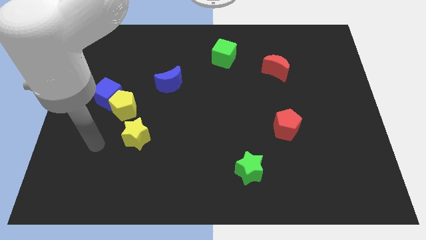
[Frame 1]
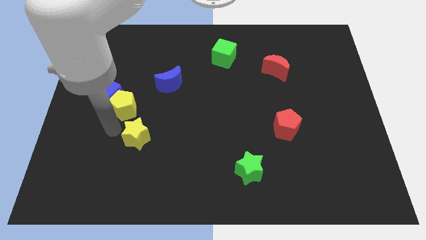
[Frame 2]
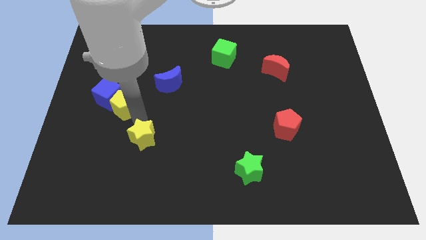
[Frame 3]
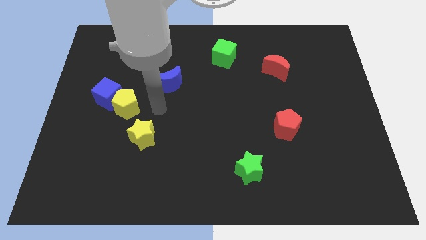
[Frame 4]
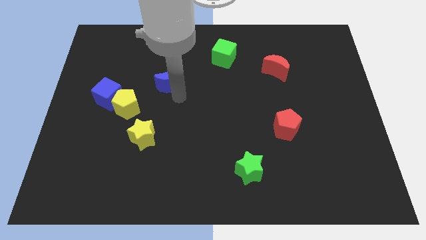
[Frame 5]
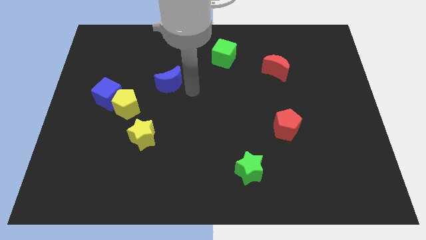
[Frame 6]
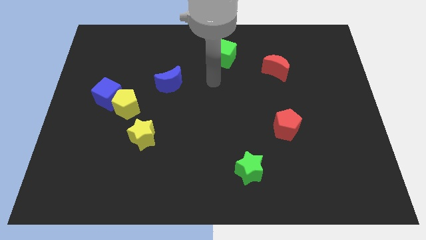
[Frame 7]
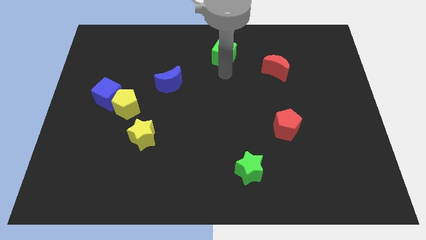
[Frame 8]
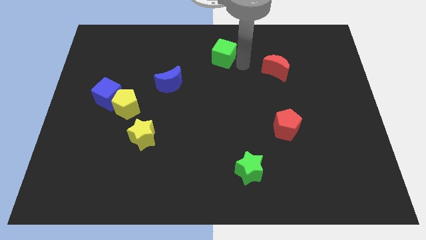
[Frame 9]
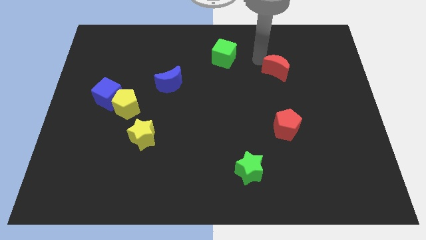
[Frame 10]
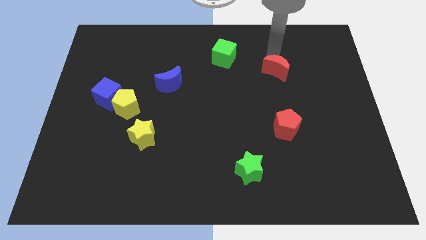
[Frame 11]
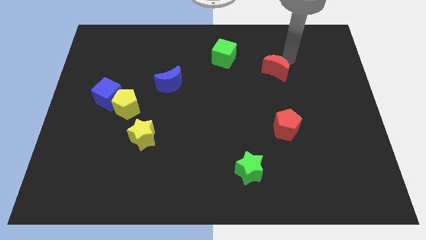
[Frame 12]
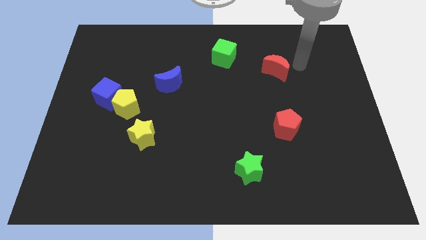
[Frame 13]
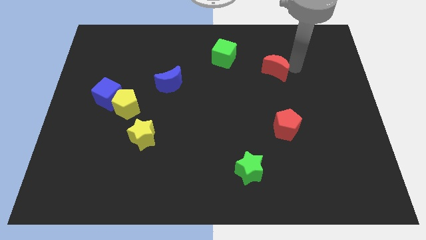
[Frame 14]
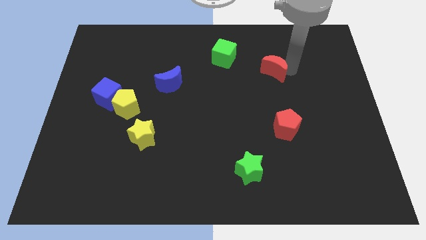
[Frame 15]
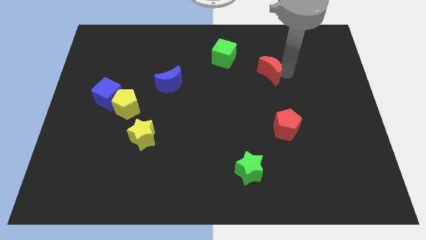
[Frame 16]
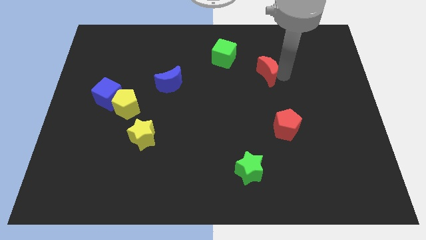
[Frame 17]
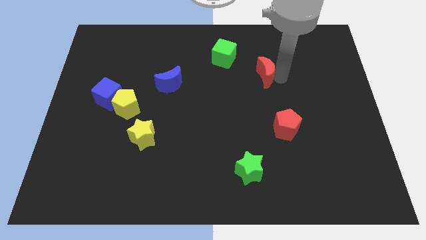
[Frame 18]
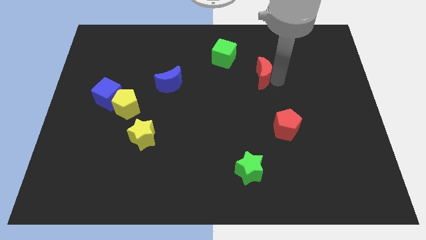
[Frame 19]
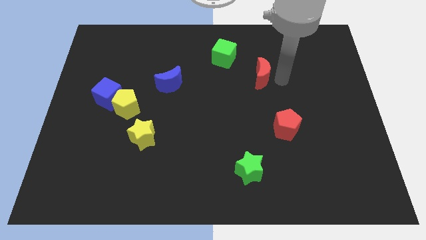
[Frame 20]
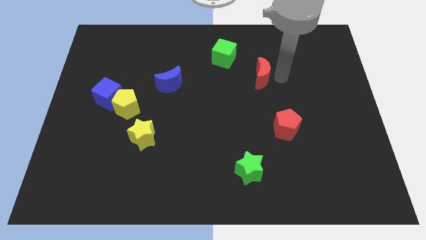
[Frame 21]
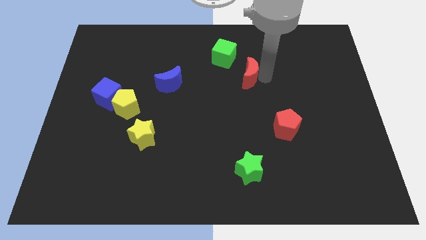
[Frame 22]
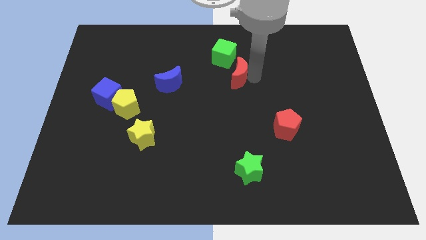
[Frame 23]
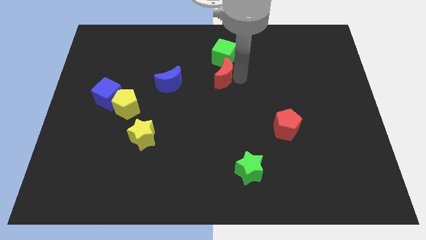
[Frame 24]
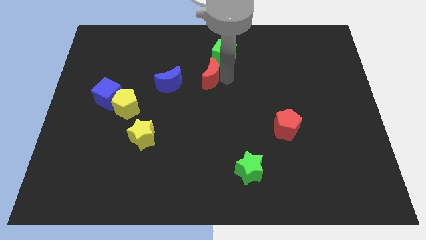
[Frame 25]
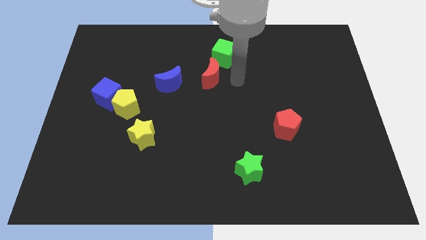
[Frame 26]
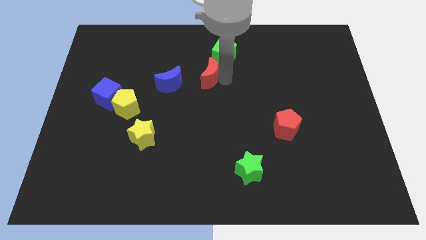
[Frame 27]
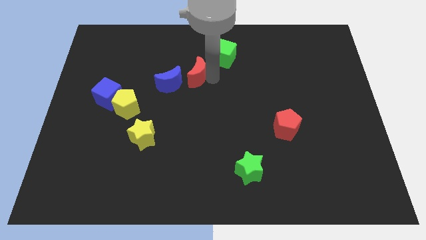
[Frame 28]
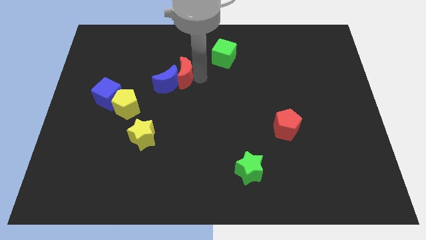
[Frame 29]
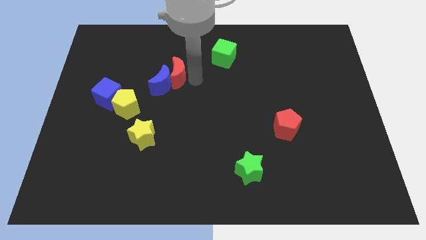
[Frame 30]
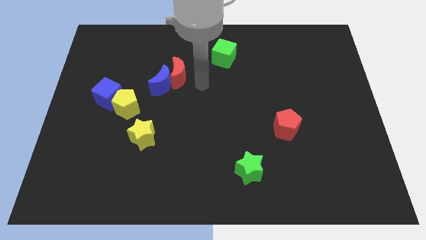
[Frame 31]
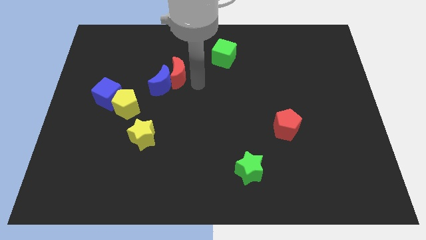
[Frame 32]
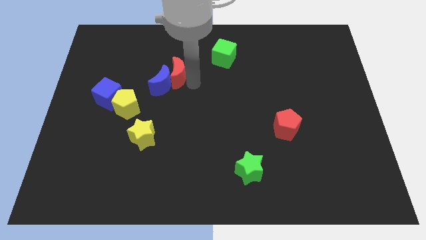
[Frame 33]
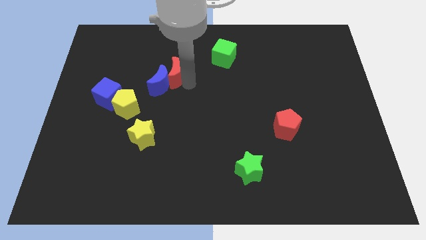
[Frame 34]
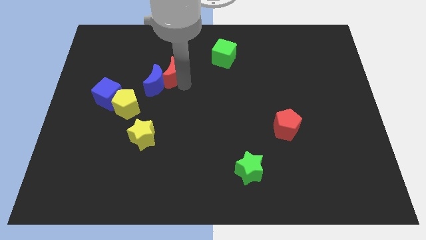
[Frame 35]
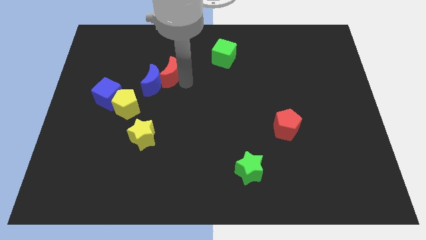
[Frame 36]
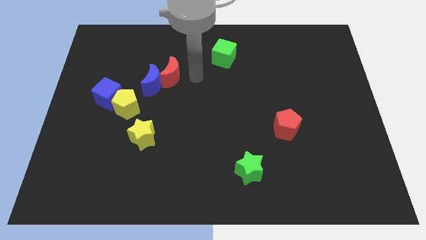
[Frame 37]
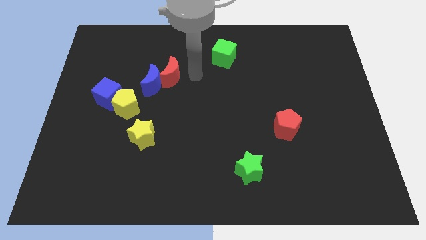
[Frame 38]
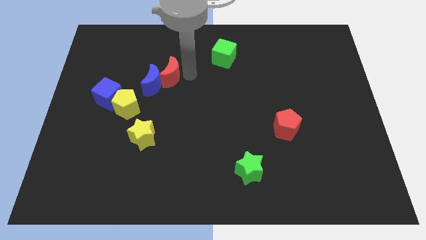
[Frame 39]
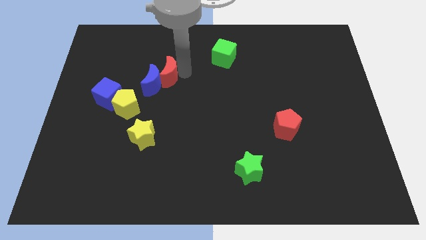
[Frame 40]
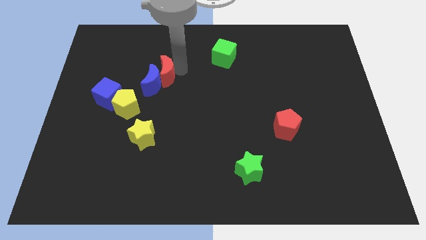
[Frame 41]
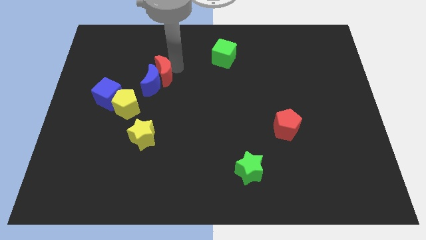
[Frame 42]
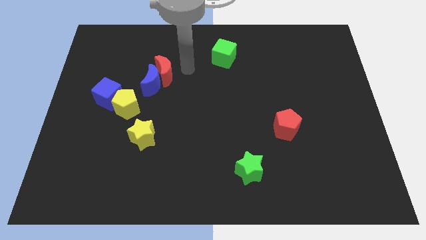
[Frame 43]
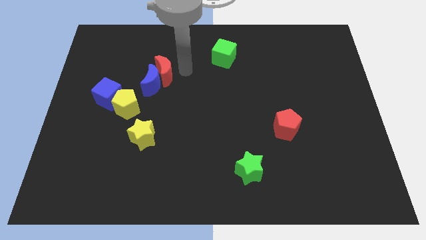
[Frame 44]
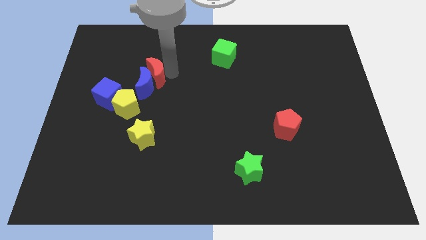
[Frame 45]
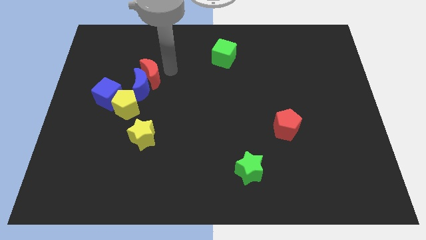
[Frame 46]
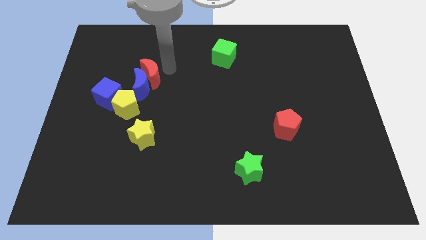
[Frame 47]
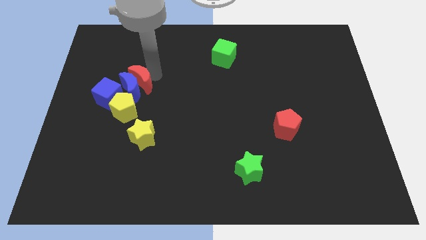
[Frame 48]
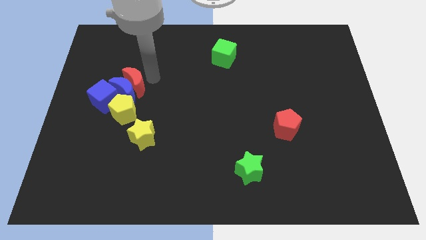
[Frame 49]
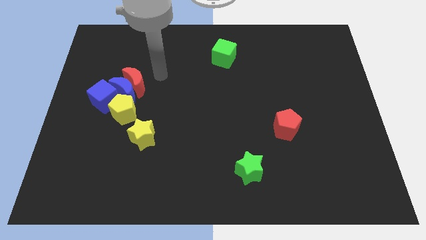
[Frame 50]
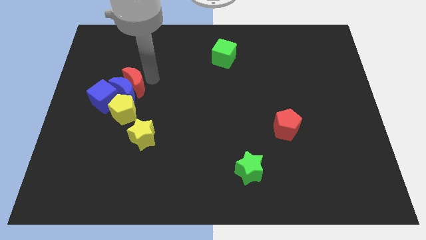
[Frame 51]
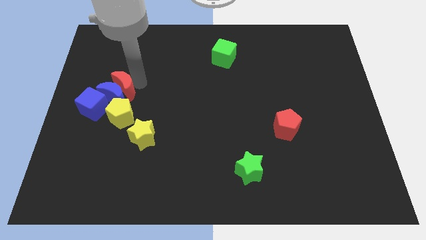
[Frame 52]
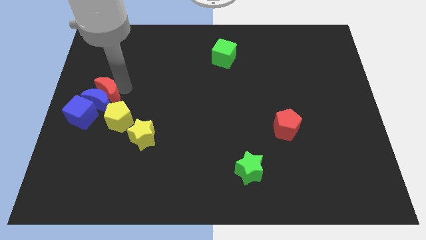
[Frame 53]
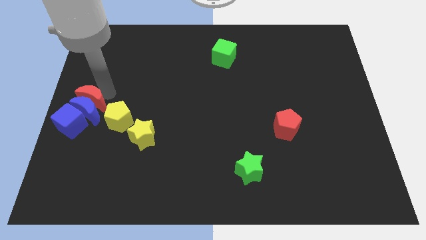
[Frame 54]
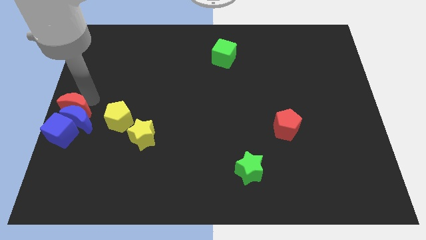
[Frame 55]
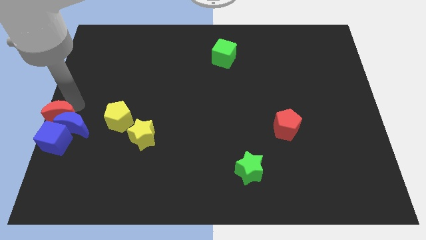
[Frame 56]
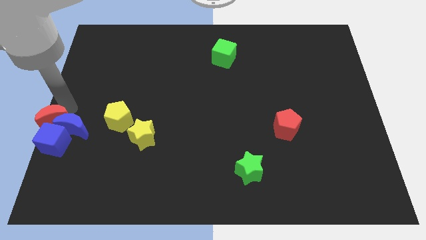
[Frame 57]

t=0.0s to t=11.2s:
slide the red moon to the blue cube
